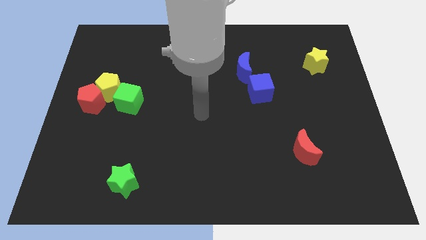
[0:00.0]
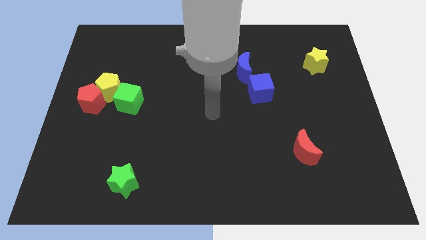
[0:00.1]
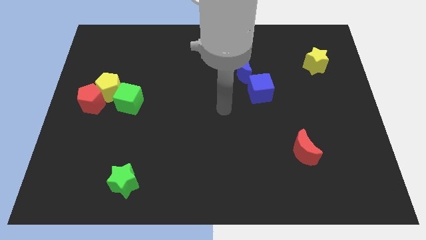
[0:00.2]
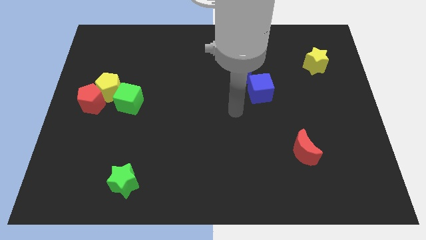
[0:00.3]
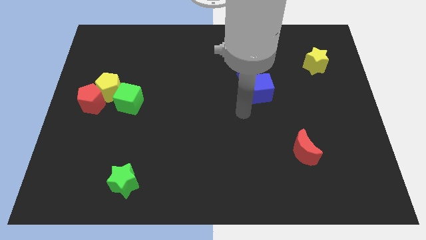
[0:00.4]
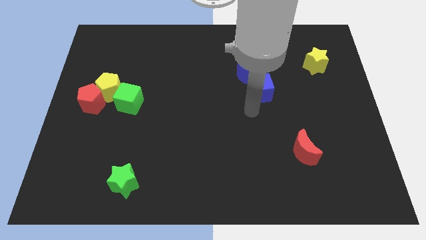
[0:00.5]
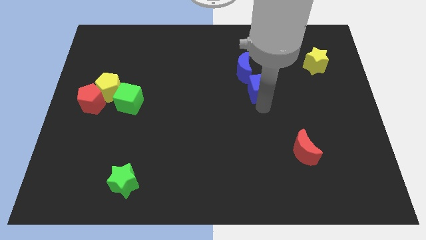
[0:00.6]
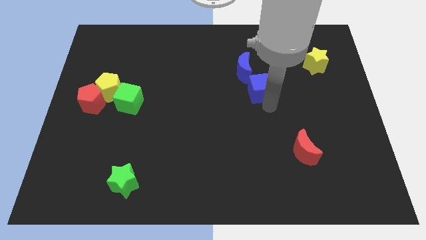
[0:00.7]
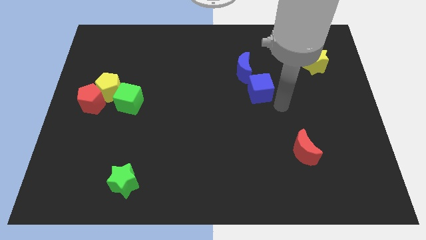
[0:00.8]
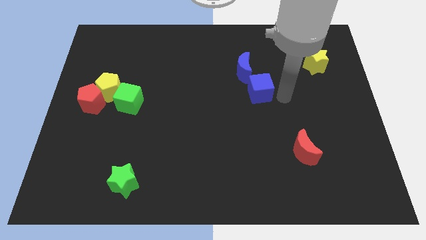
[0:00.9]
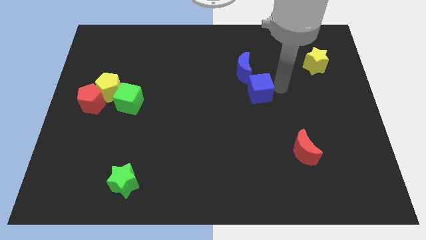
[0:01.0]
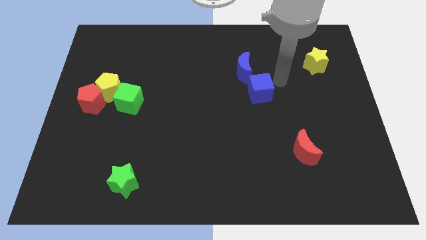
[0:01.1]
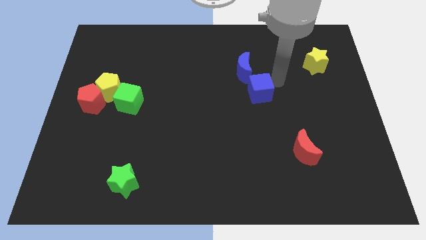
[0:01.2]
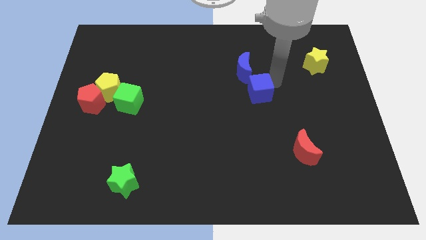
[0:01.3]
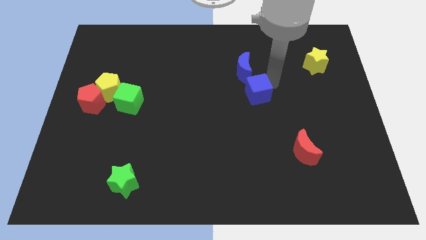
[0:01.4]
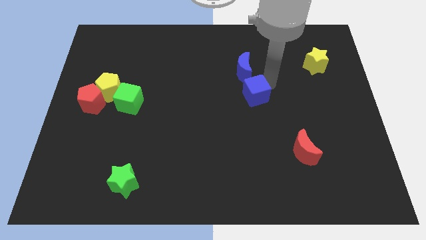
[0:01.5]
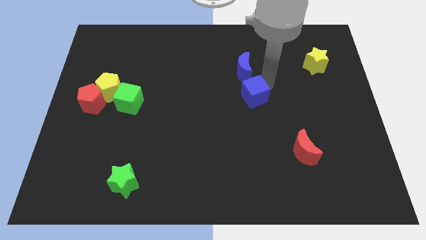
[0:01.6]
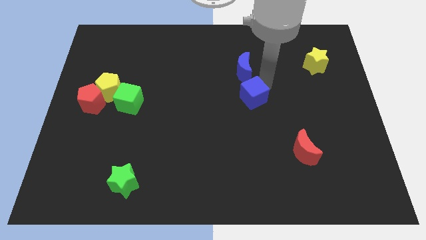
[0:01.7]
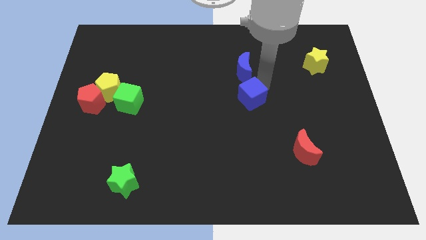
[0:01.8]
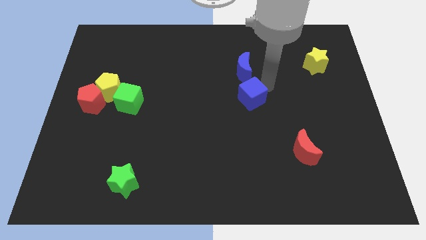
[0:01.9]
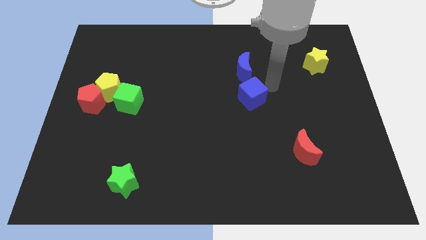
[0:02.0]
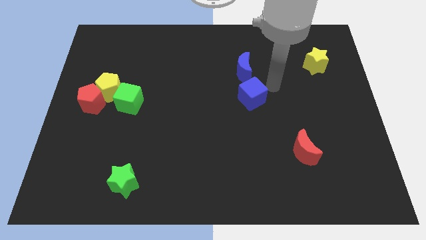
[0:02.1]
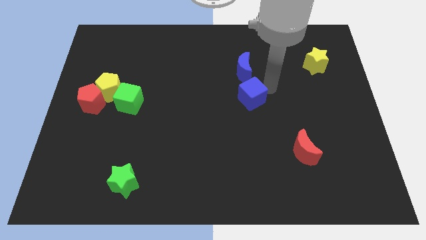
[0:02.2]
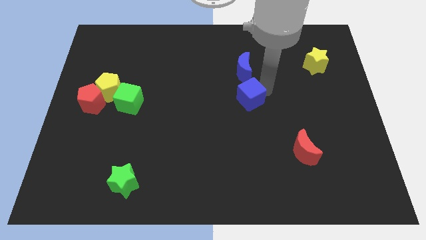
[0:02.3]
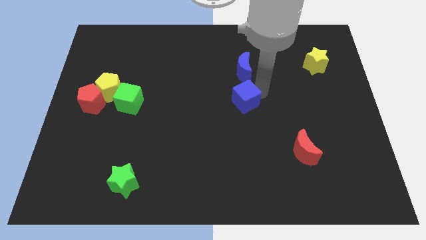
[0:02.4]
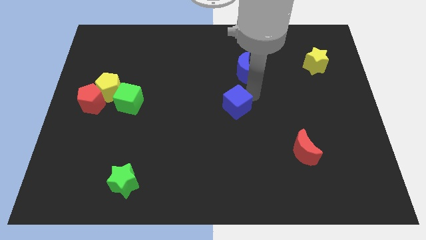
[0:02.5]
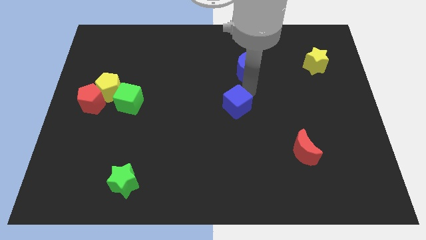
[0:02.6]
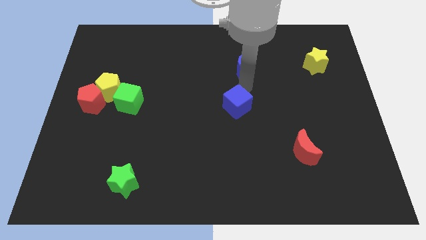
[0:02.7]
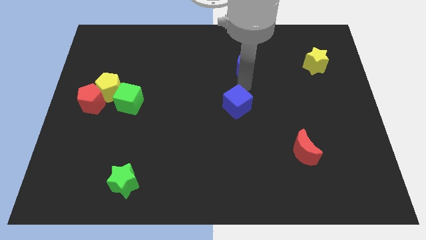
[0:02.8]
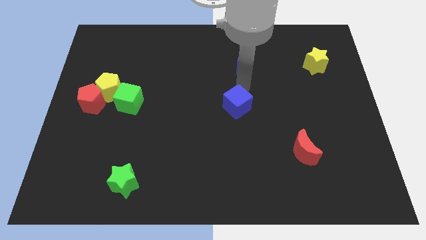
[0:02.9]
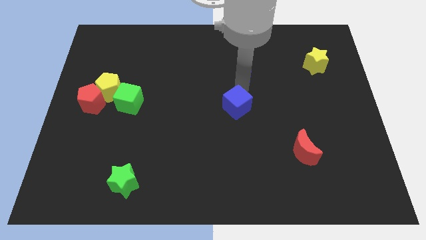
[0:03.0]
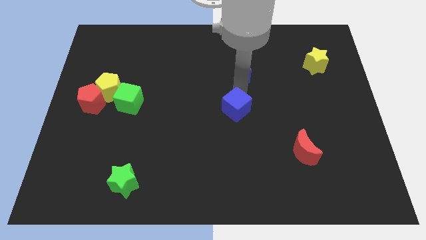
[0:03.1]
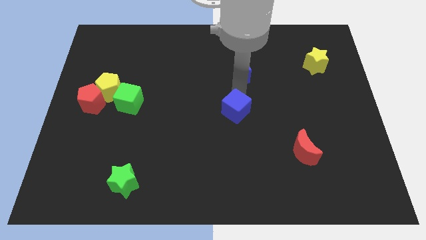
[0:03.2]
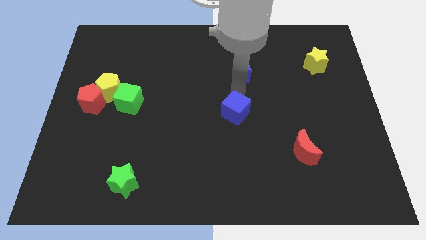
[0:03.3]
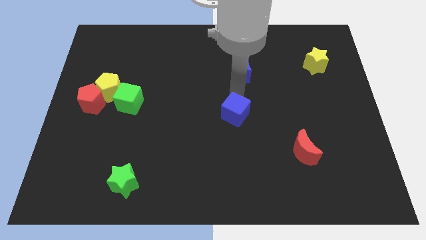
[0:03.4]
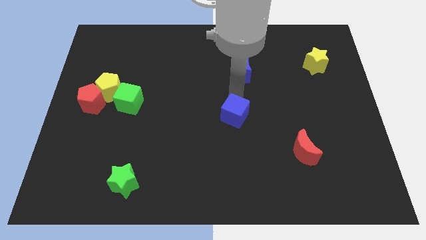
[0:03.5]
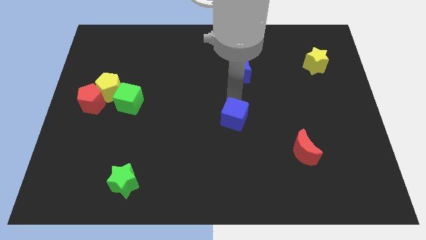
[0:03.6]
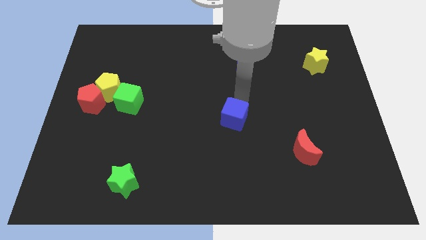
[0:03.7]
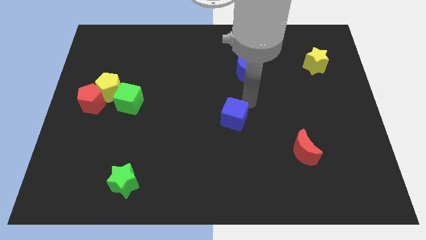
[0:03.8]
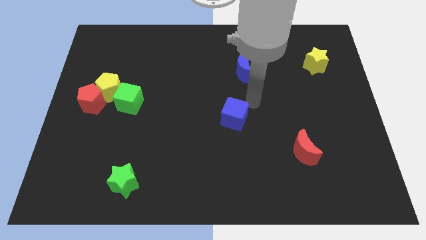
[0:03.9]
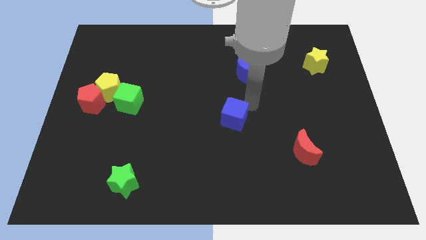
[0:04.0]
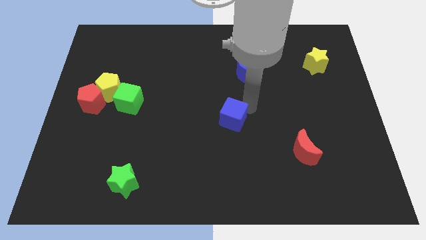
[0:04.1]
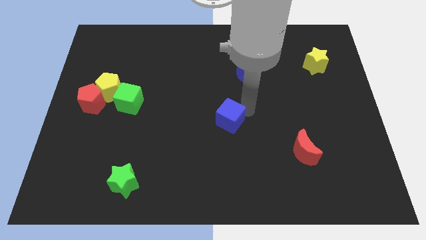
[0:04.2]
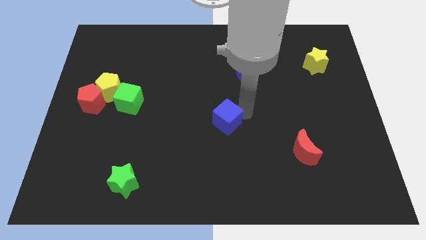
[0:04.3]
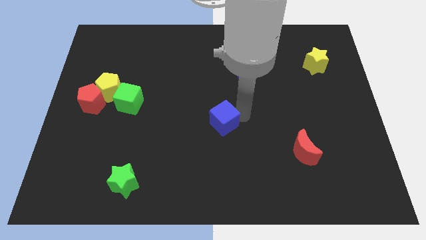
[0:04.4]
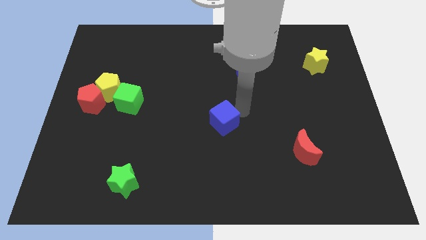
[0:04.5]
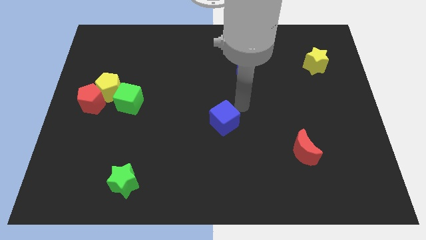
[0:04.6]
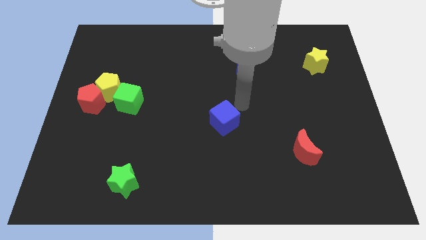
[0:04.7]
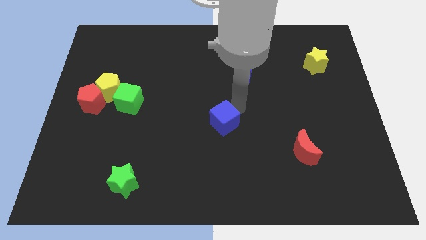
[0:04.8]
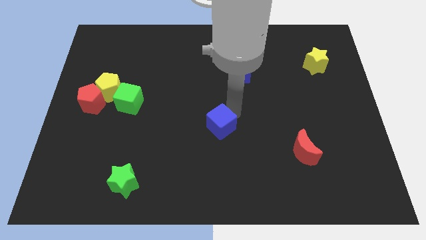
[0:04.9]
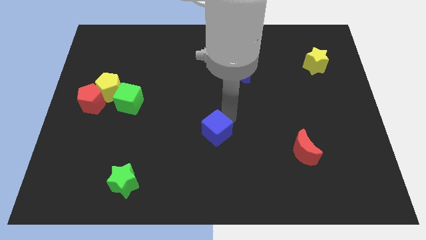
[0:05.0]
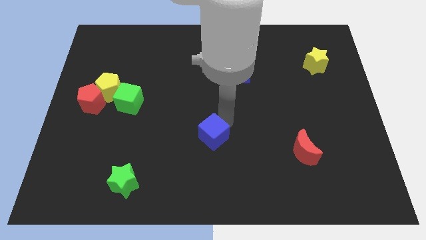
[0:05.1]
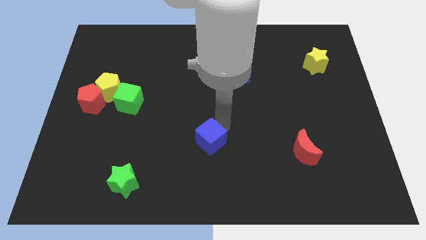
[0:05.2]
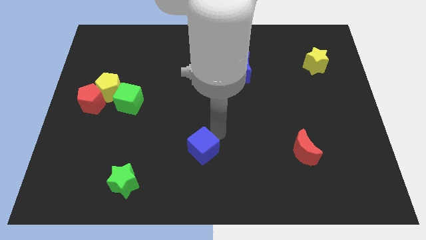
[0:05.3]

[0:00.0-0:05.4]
move the blue cube down and to the left diagonally

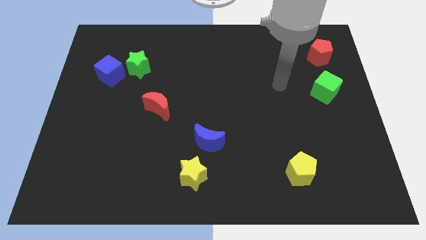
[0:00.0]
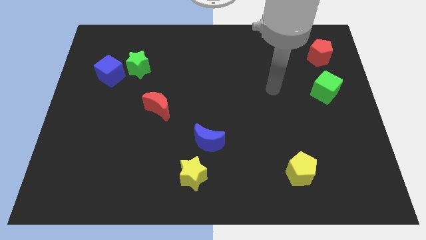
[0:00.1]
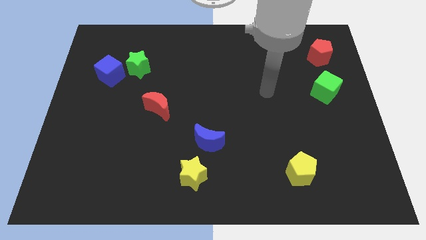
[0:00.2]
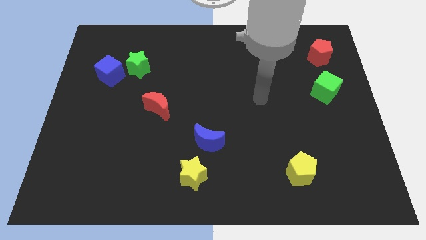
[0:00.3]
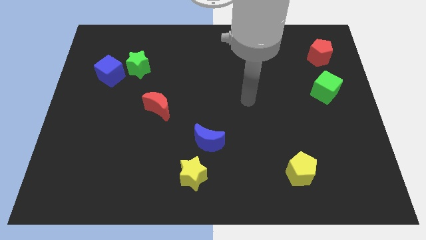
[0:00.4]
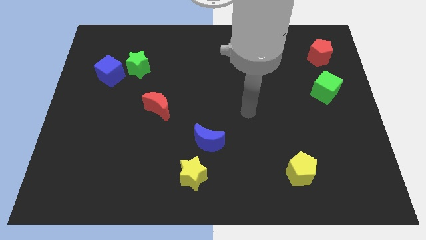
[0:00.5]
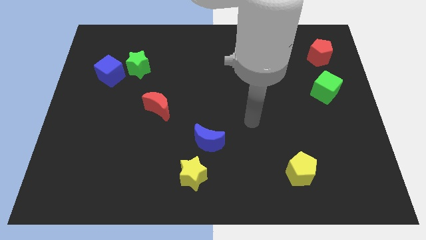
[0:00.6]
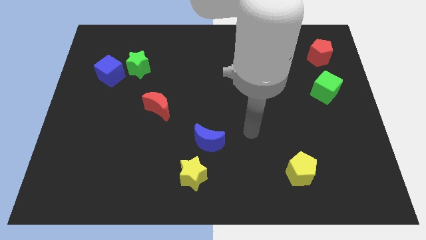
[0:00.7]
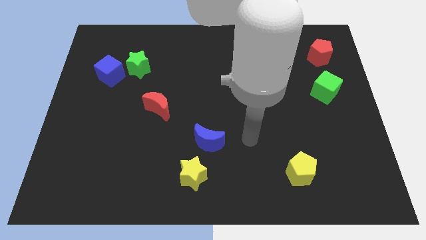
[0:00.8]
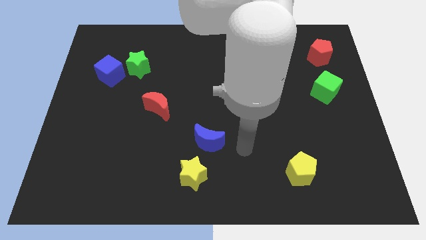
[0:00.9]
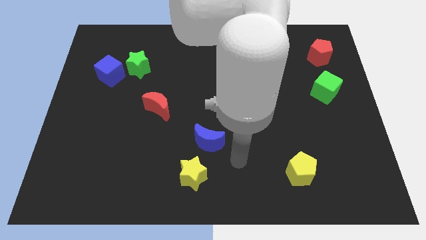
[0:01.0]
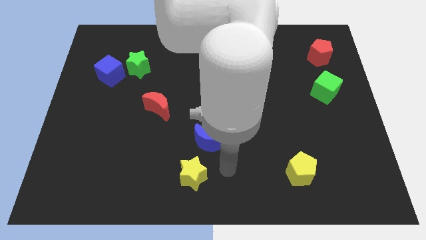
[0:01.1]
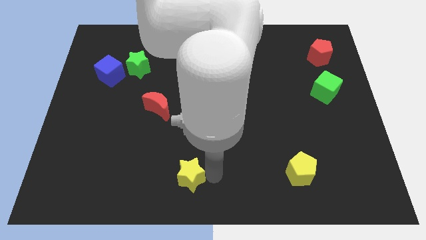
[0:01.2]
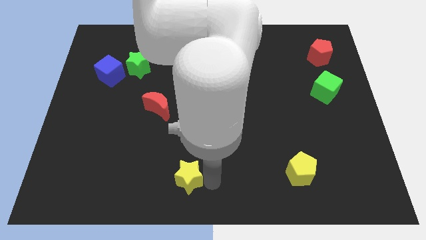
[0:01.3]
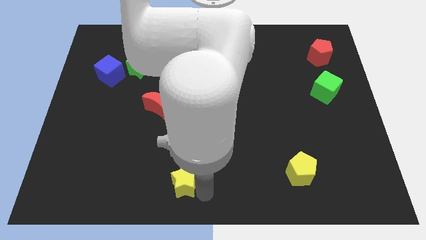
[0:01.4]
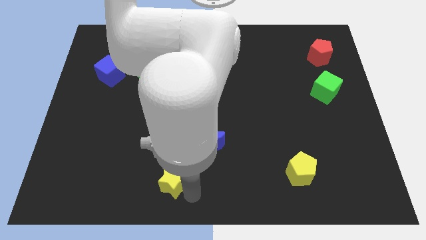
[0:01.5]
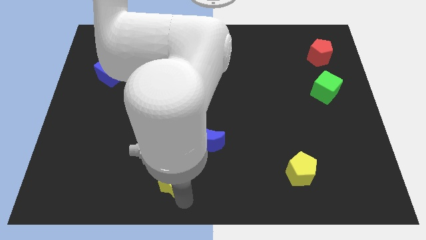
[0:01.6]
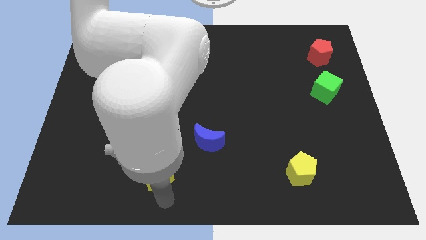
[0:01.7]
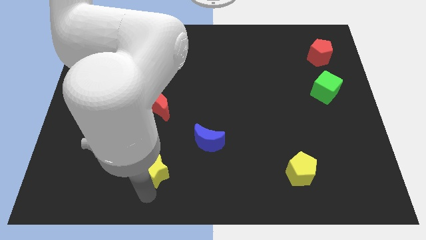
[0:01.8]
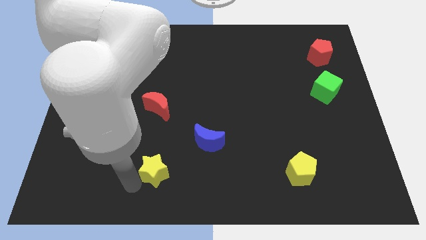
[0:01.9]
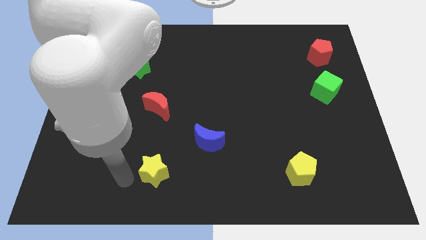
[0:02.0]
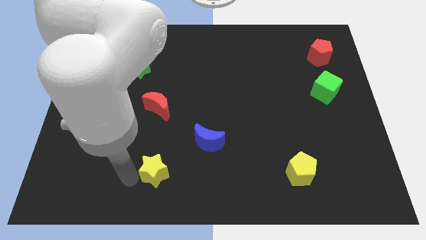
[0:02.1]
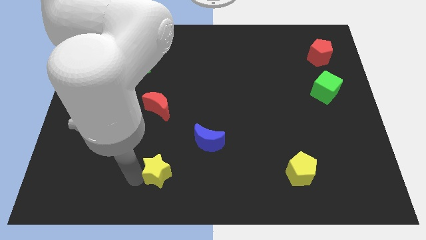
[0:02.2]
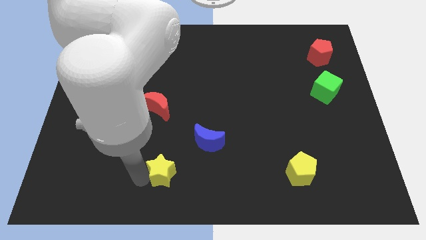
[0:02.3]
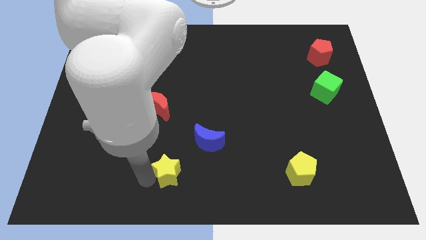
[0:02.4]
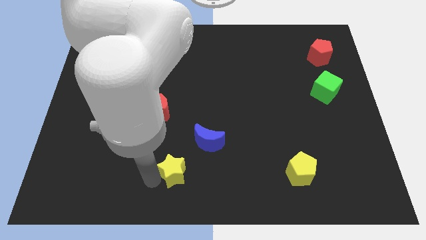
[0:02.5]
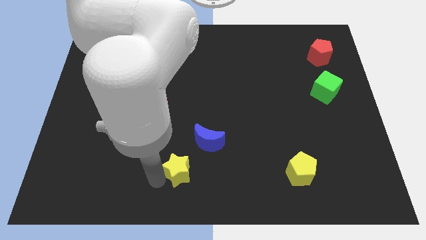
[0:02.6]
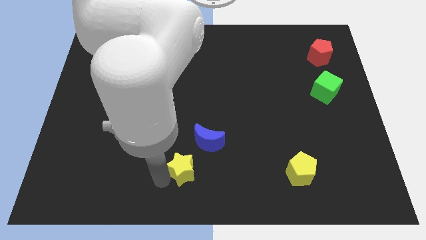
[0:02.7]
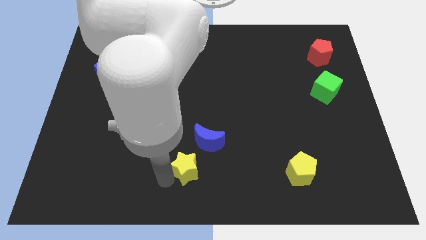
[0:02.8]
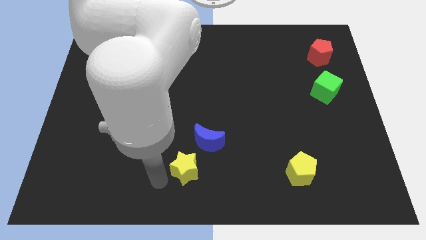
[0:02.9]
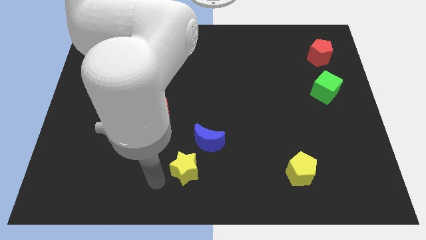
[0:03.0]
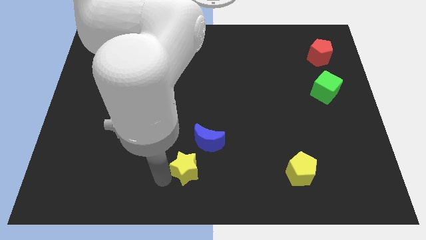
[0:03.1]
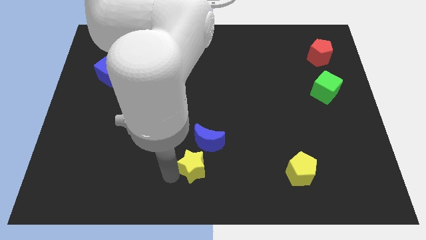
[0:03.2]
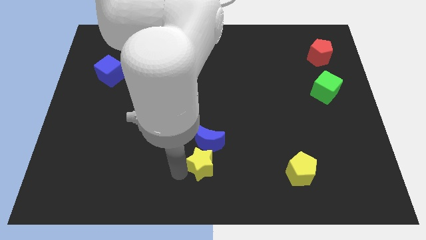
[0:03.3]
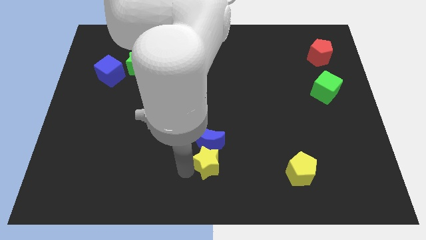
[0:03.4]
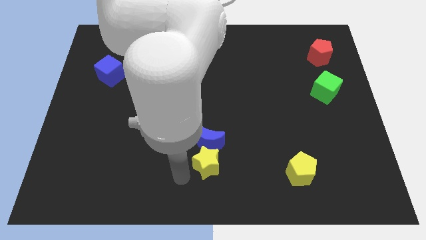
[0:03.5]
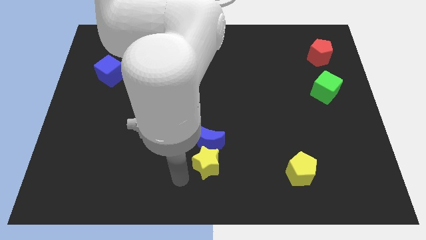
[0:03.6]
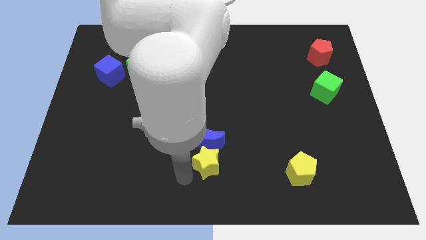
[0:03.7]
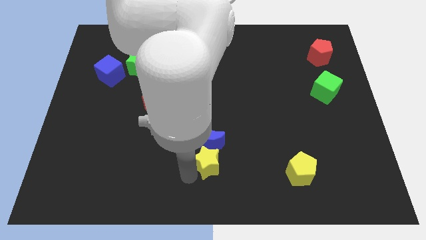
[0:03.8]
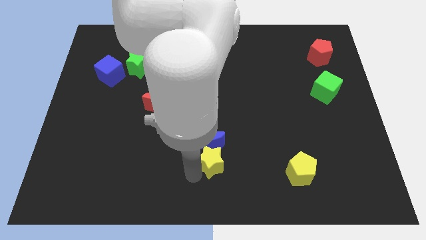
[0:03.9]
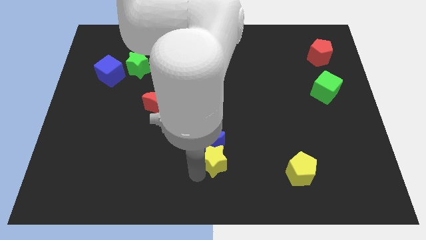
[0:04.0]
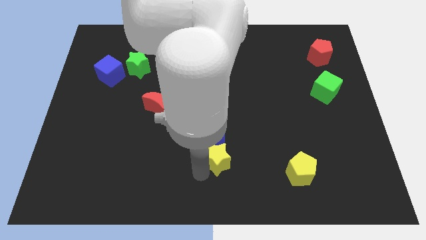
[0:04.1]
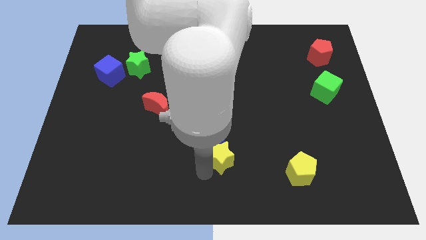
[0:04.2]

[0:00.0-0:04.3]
slightly slide the yellow star up and to the right diagonally
